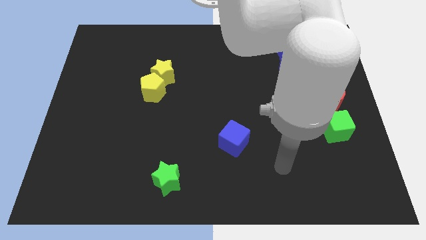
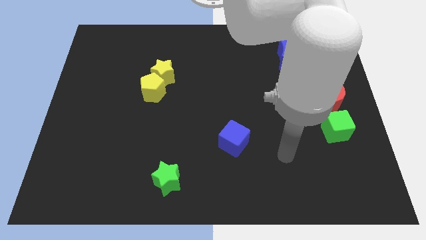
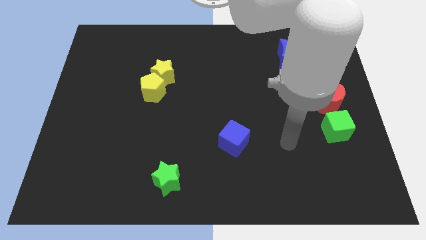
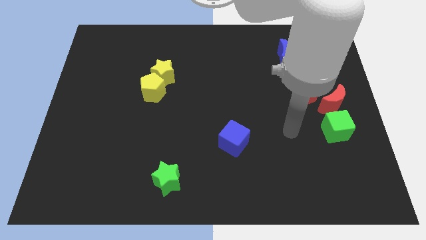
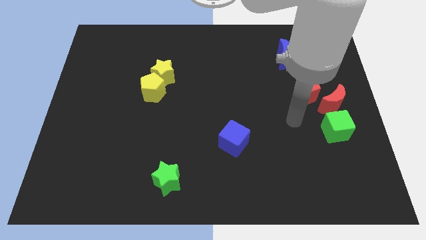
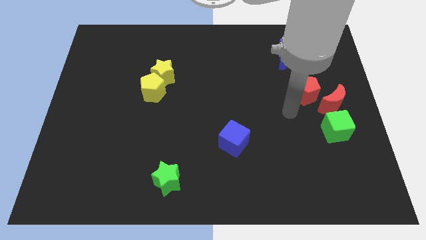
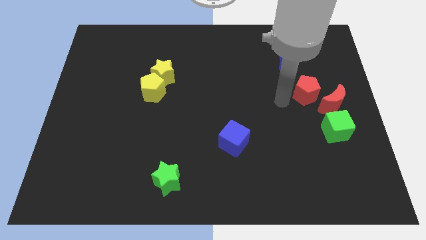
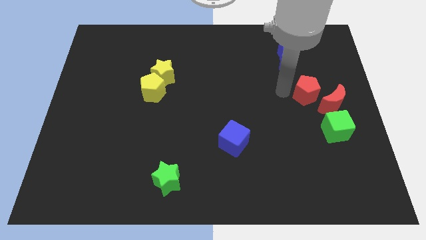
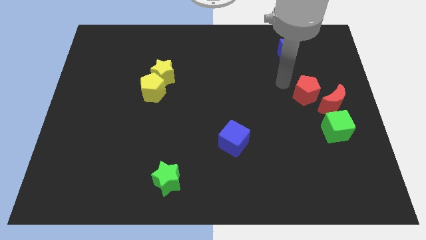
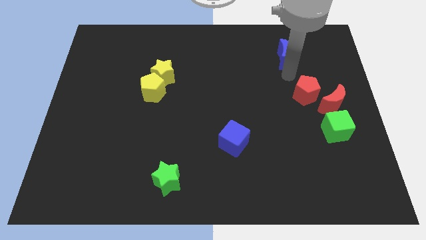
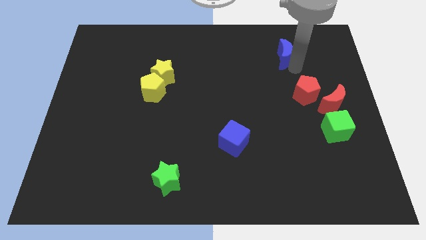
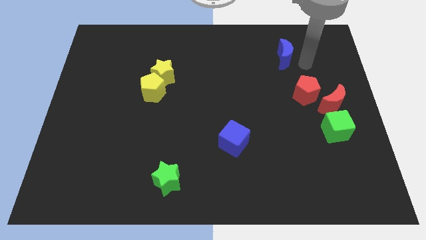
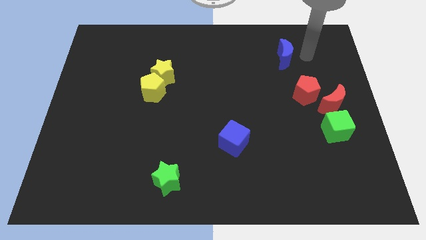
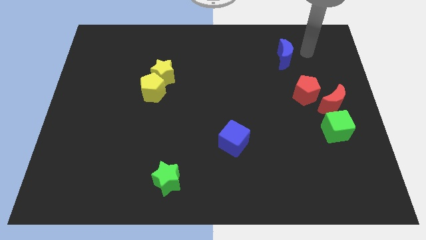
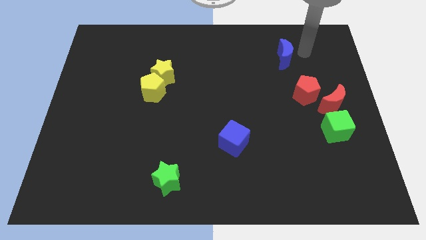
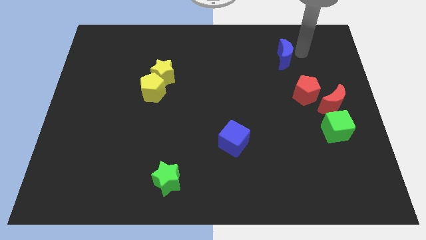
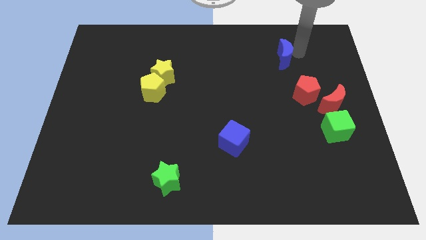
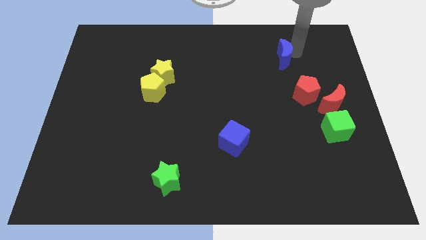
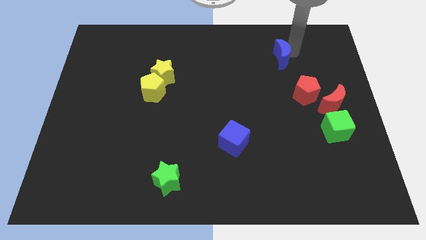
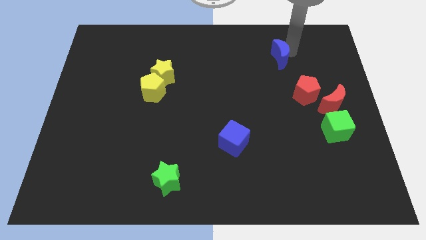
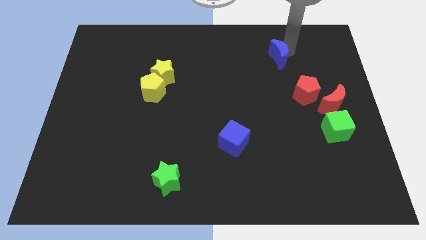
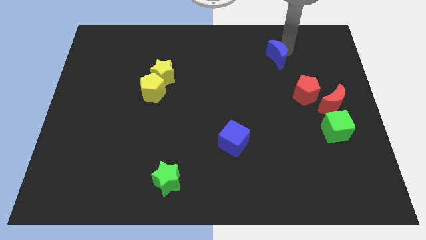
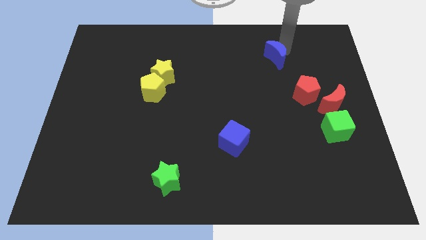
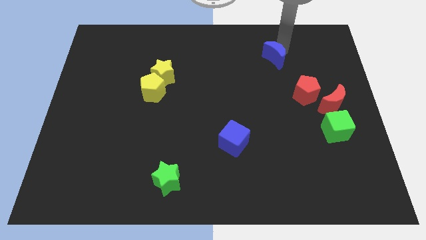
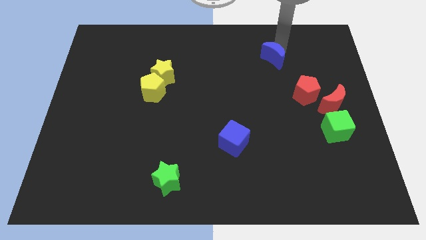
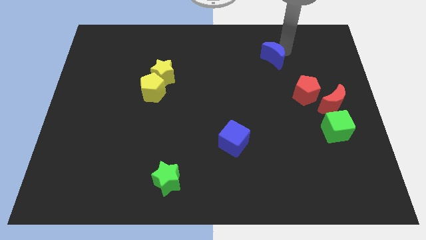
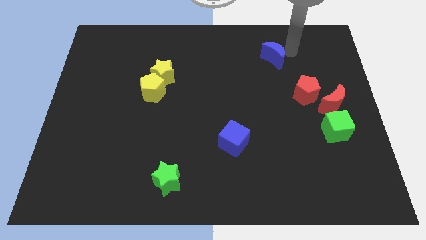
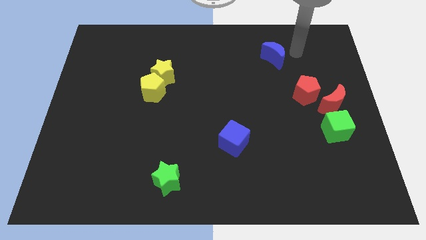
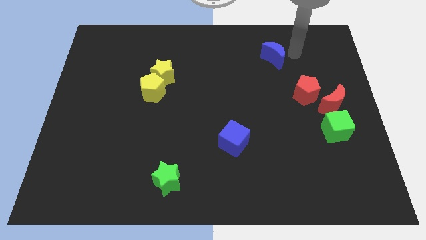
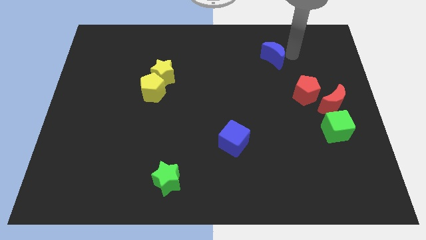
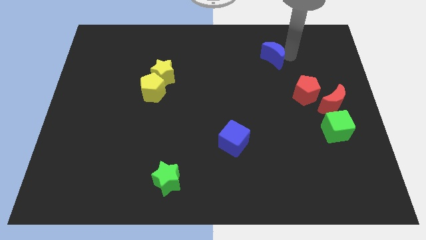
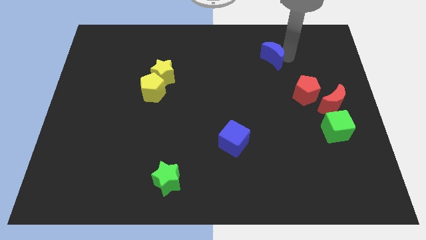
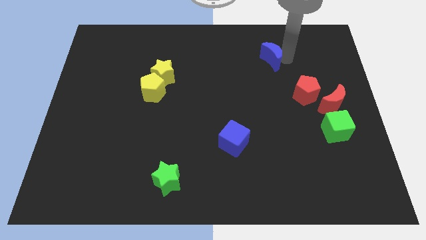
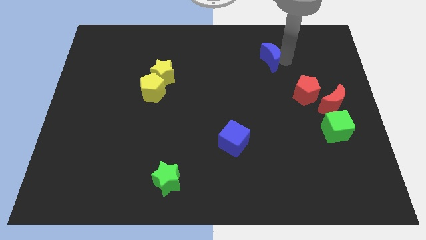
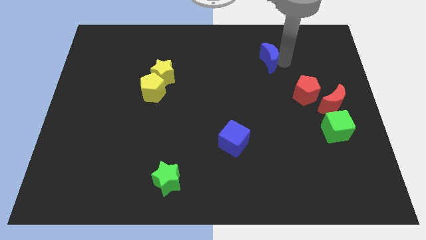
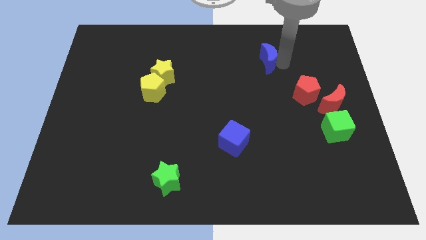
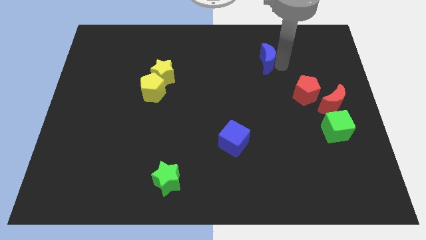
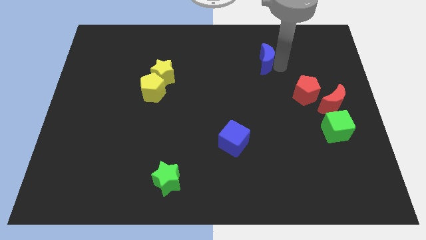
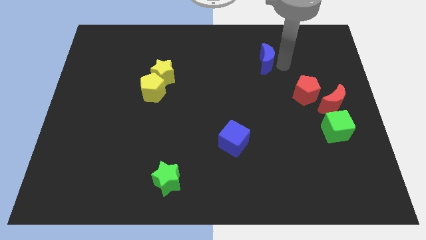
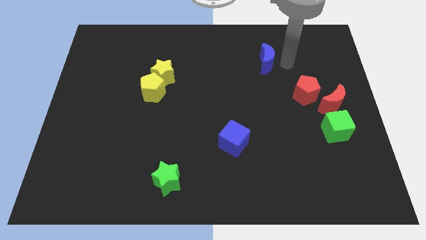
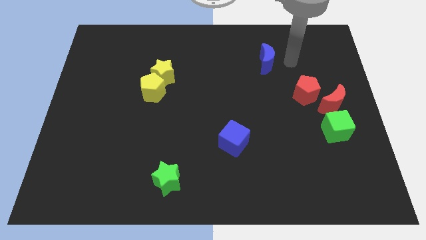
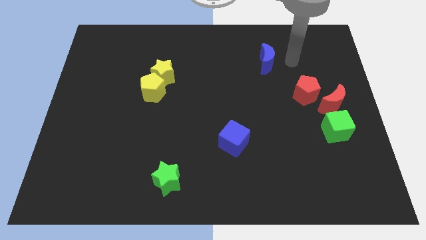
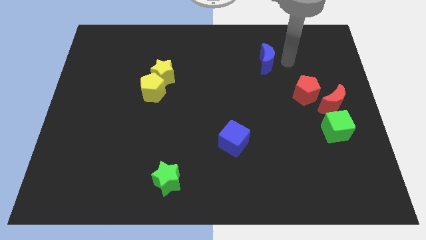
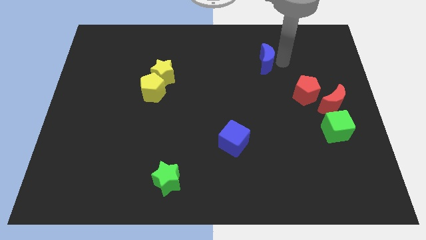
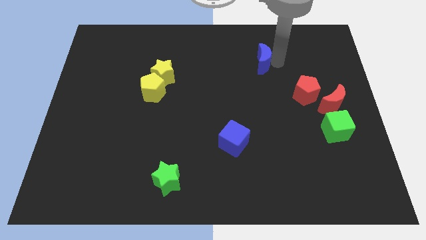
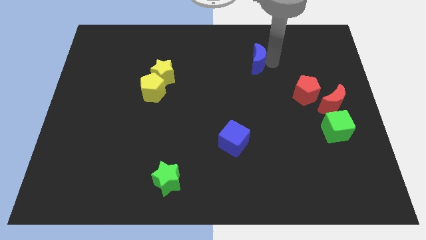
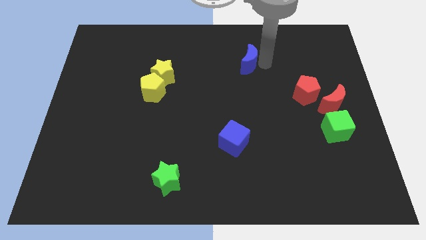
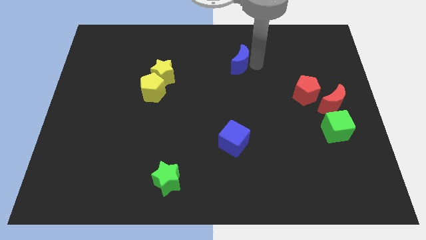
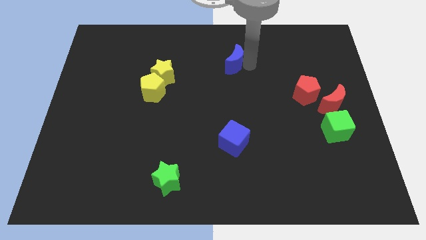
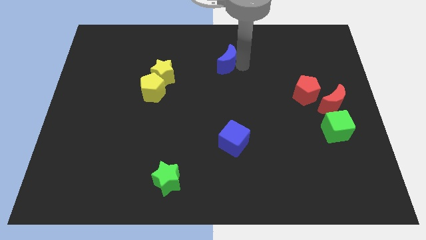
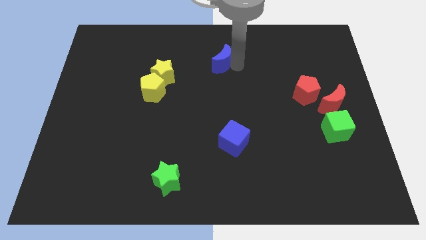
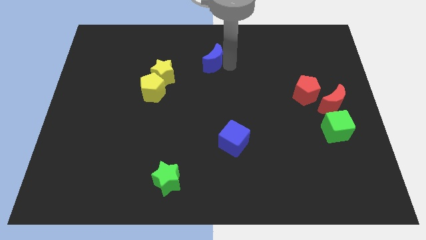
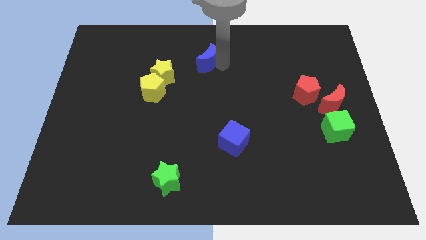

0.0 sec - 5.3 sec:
push the blue moon left

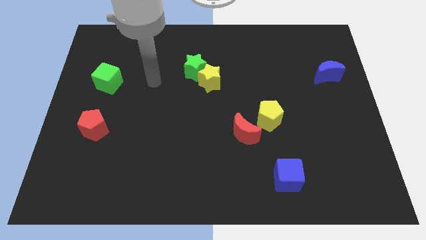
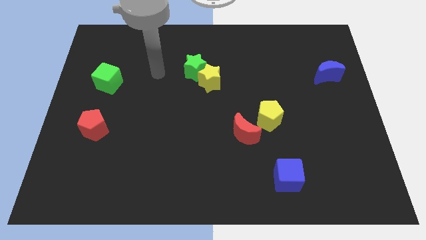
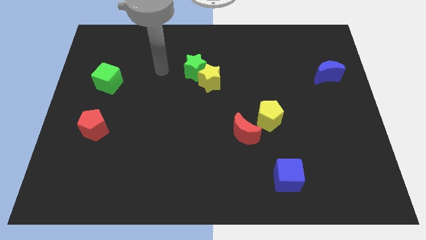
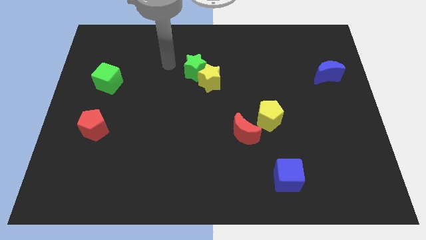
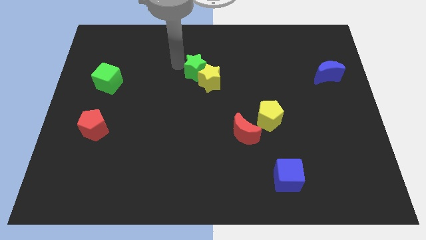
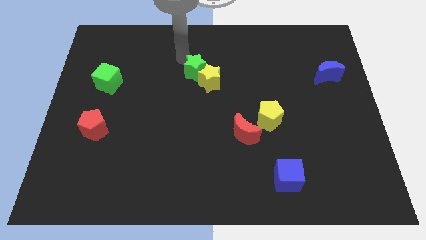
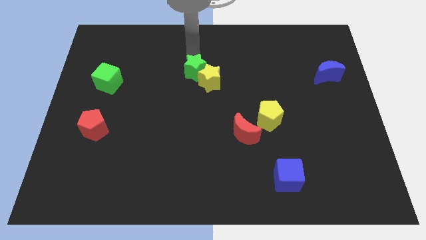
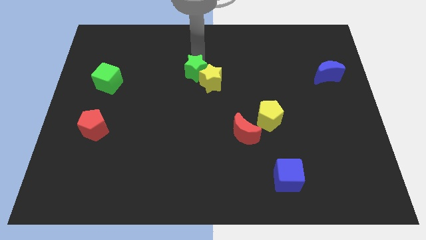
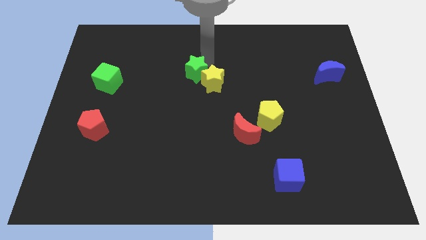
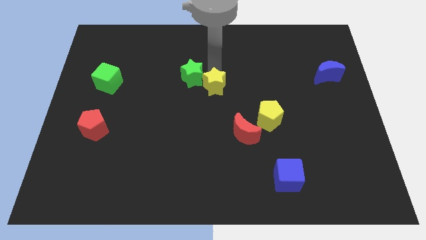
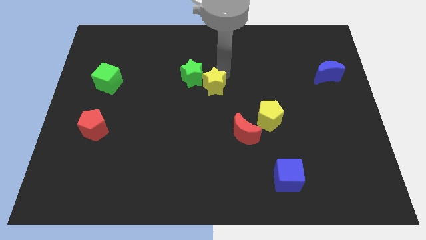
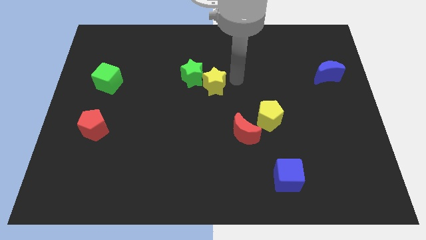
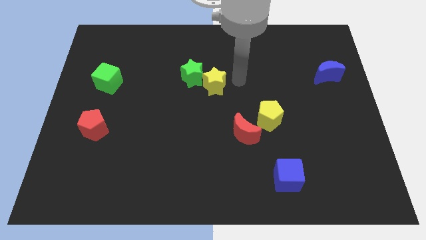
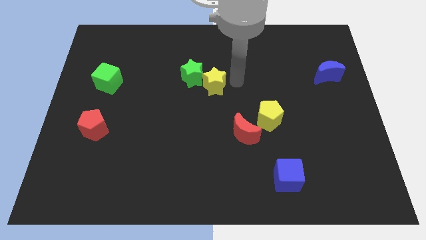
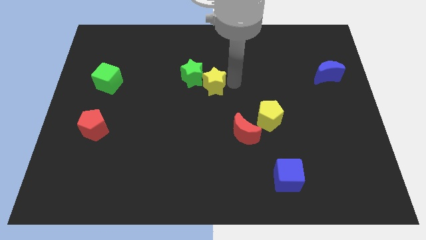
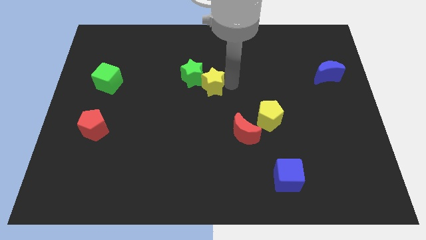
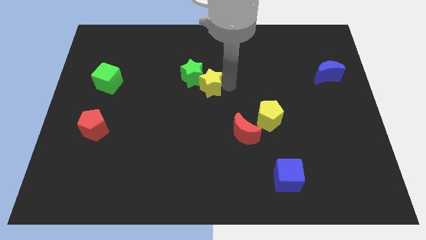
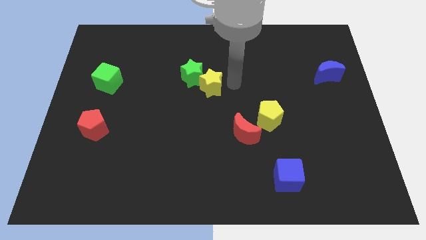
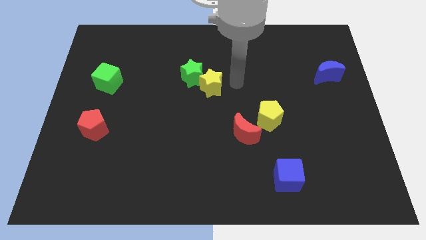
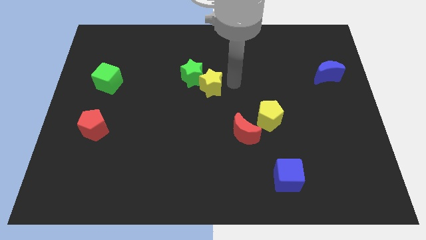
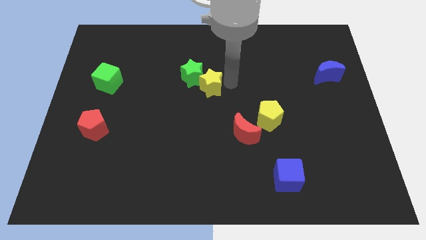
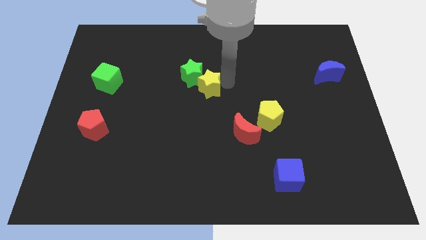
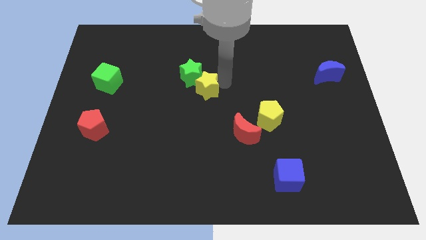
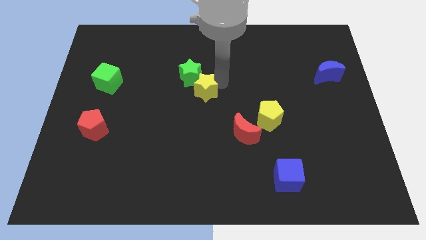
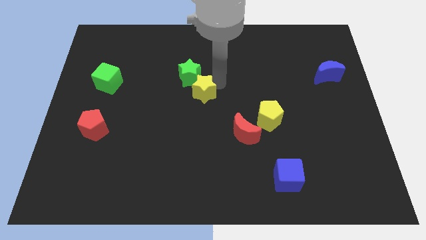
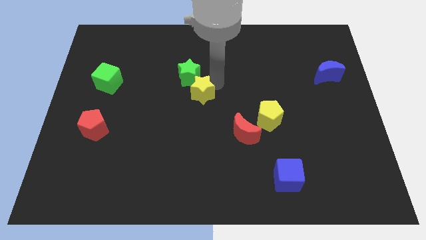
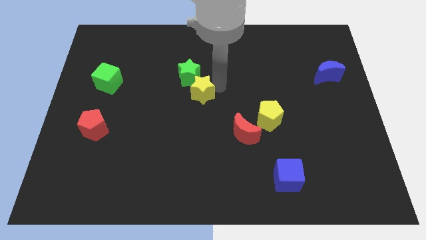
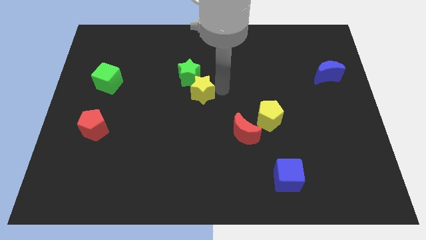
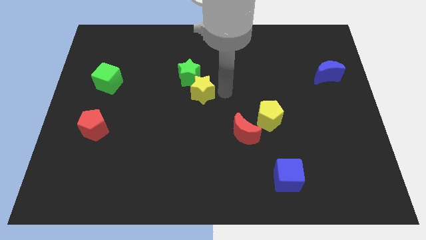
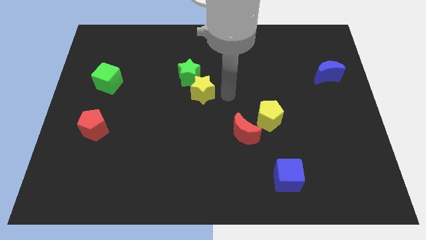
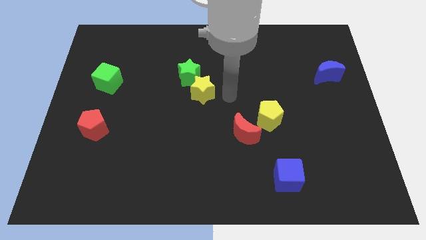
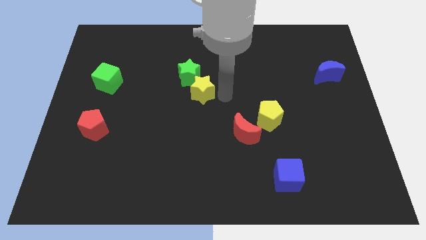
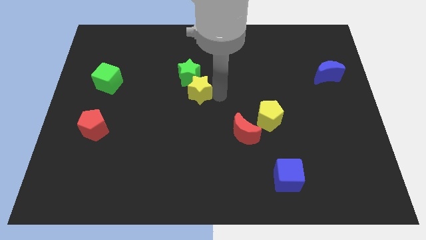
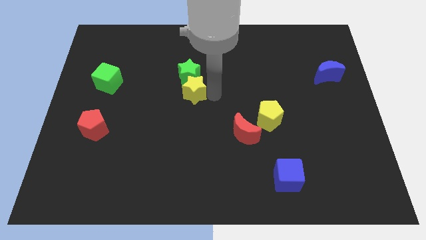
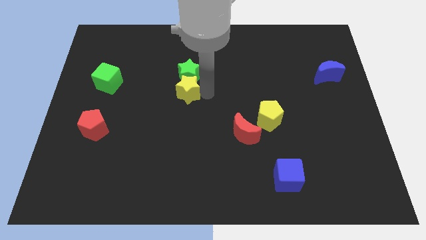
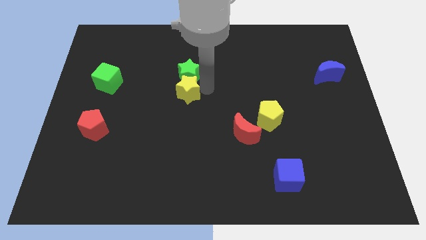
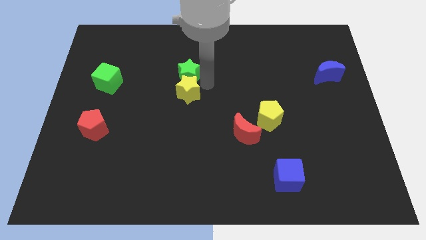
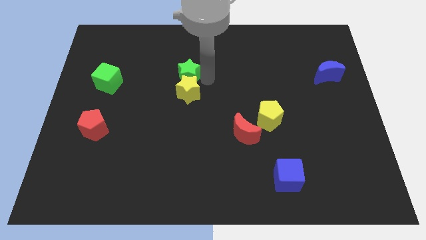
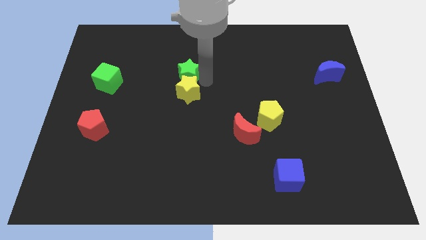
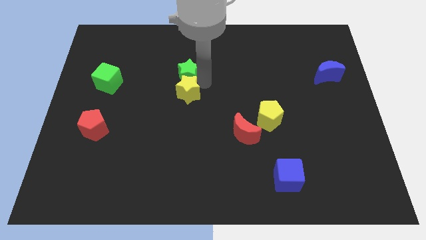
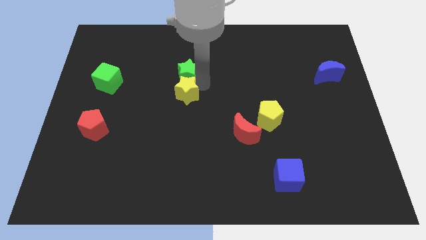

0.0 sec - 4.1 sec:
slightly move the yellow star down and left diagonally
